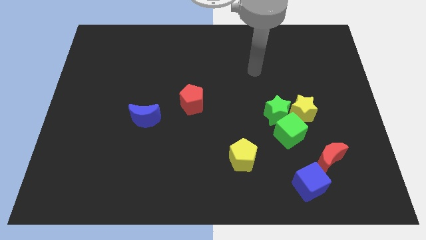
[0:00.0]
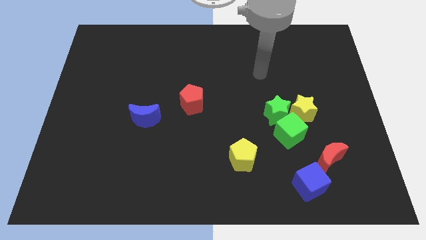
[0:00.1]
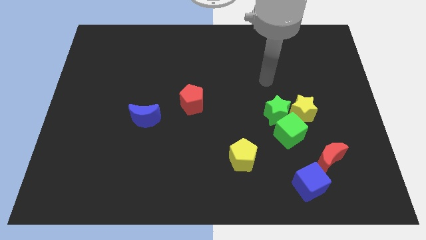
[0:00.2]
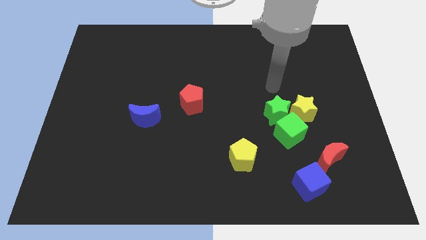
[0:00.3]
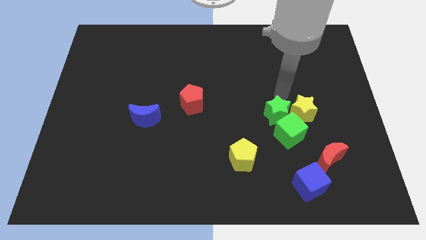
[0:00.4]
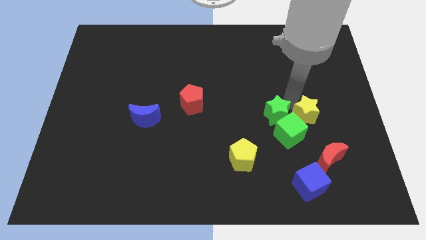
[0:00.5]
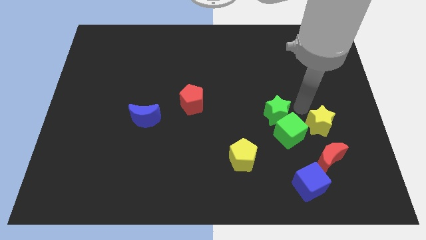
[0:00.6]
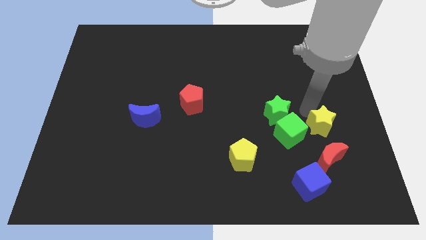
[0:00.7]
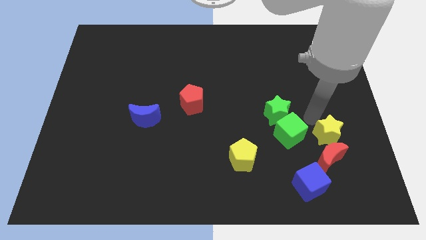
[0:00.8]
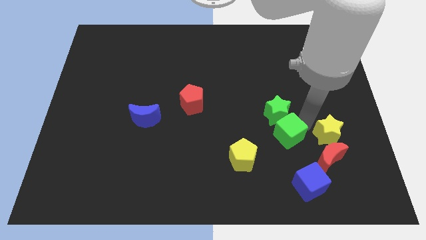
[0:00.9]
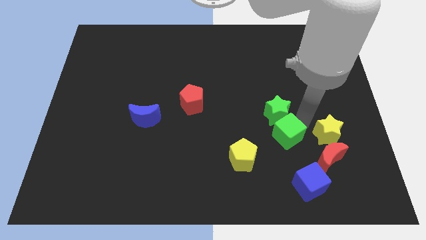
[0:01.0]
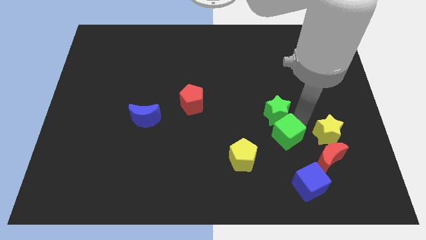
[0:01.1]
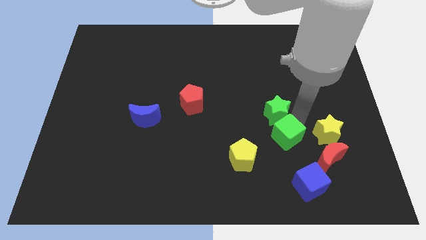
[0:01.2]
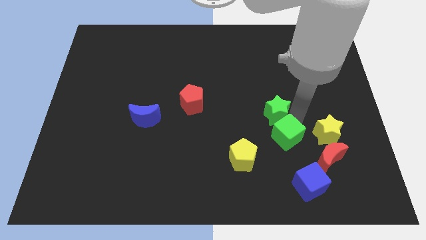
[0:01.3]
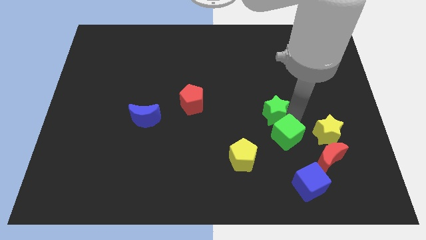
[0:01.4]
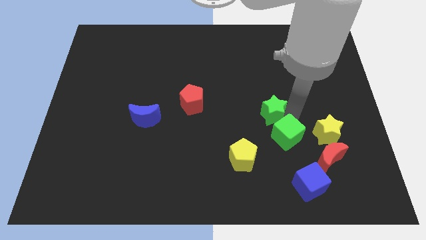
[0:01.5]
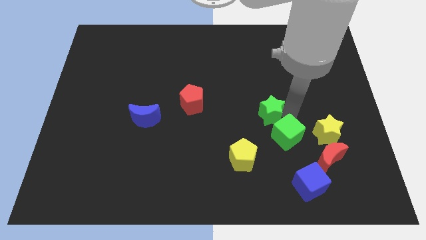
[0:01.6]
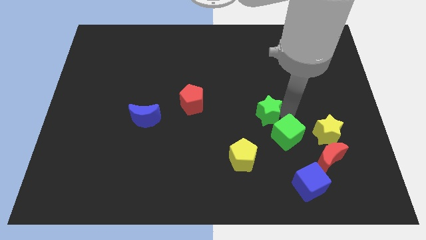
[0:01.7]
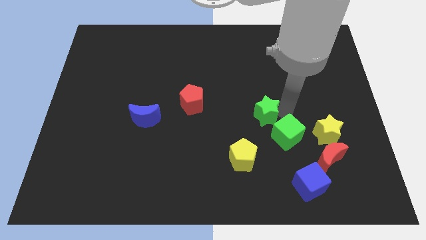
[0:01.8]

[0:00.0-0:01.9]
separate the green star from the green cube and yellow star

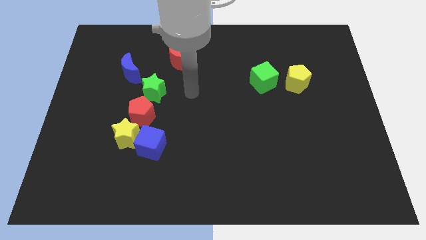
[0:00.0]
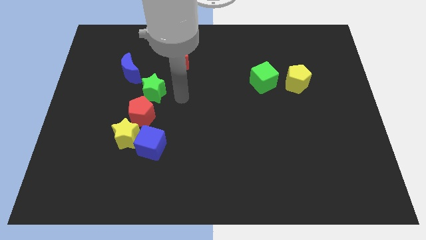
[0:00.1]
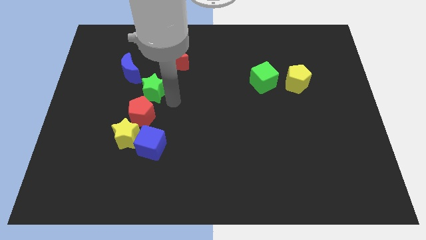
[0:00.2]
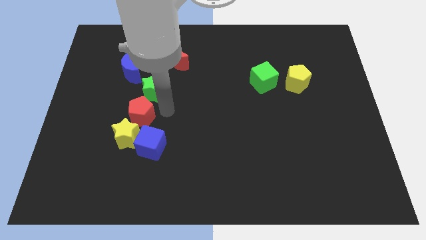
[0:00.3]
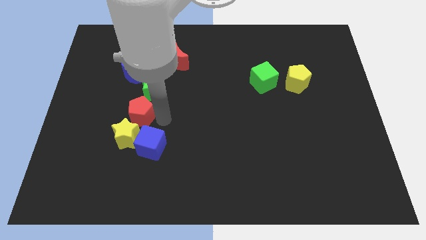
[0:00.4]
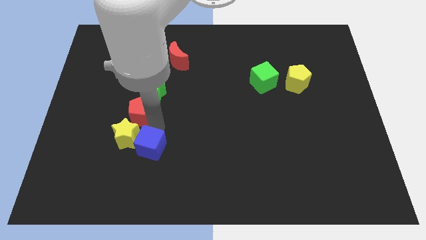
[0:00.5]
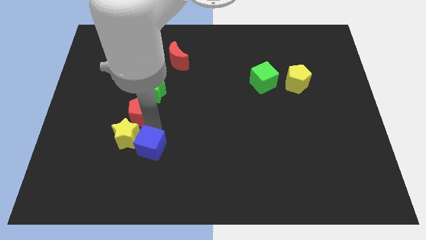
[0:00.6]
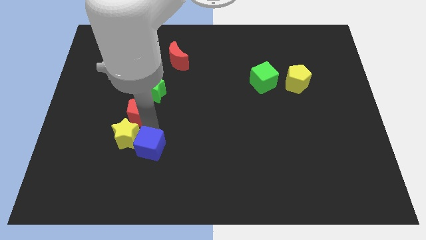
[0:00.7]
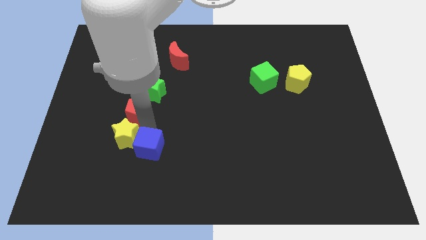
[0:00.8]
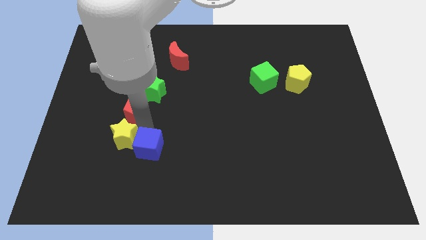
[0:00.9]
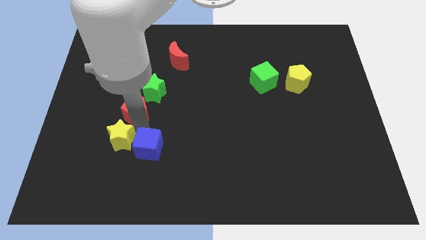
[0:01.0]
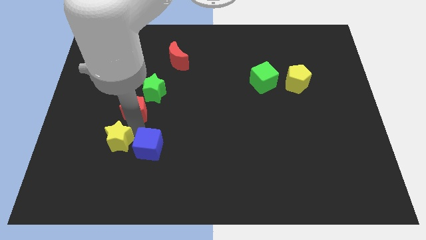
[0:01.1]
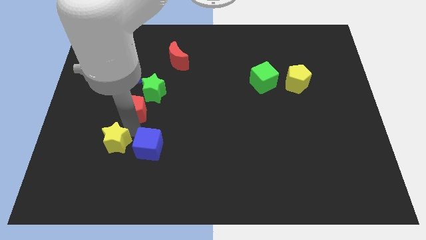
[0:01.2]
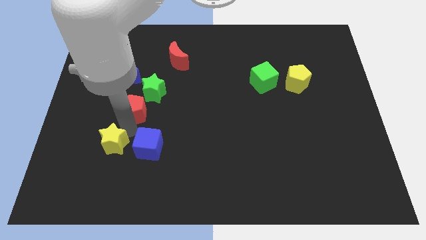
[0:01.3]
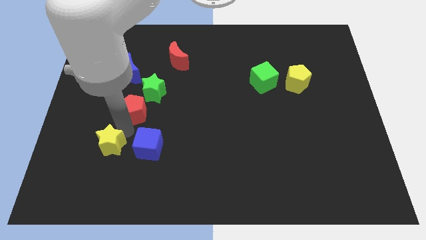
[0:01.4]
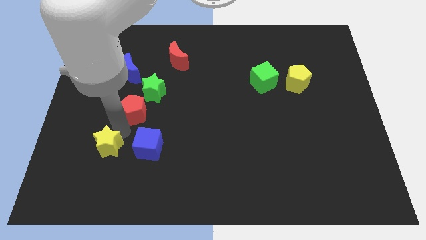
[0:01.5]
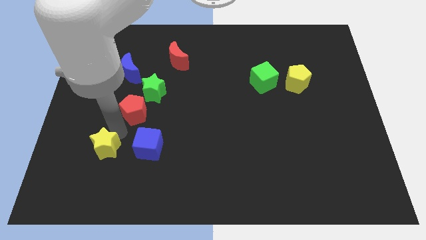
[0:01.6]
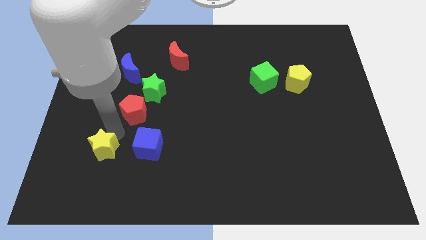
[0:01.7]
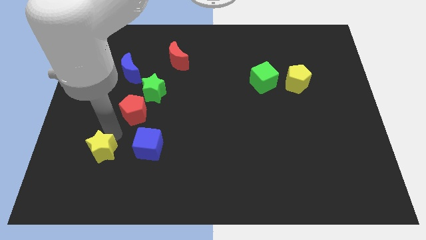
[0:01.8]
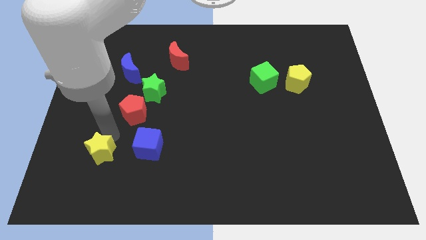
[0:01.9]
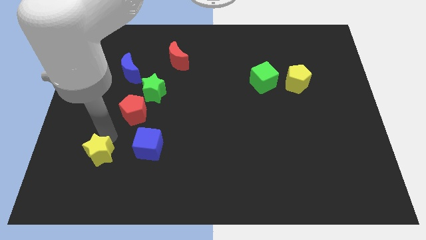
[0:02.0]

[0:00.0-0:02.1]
separate the yellow star from the blue cube and red pentagon

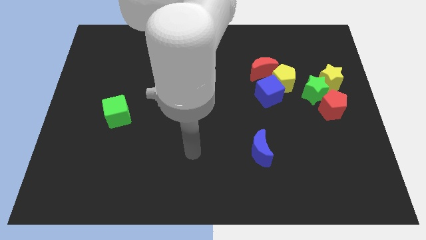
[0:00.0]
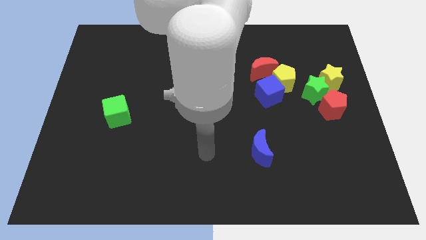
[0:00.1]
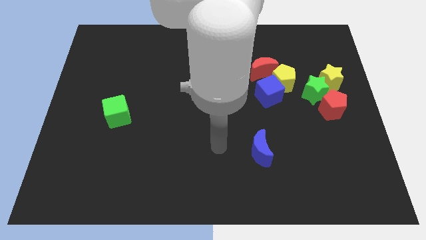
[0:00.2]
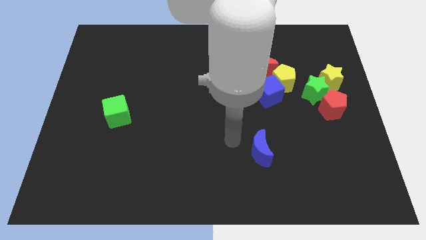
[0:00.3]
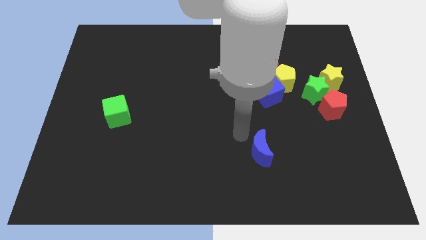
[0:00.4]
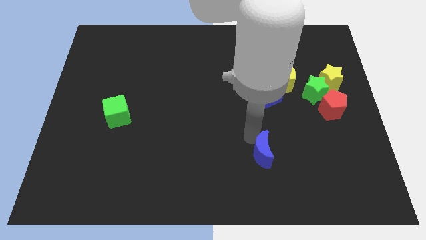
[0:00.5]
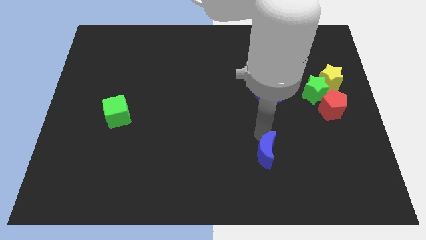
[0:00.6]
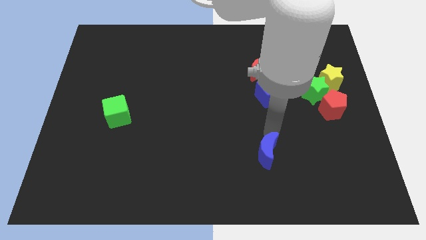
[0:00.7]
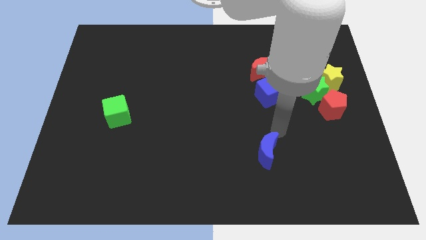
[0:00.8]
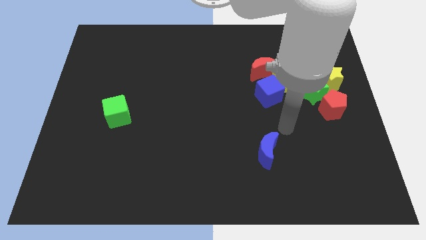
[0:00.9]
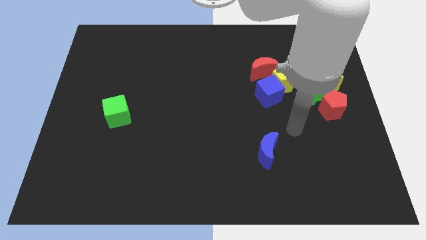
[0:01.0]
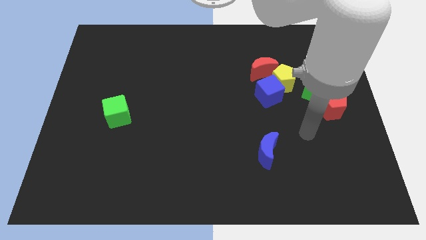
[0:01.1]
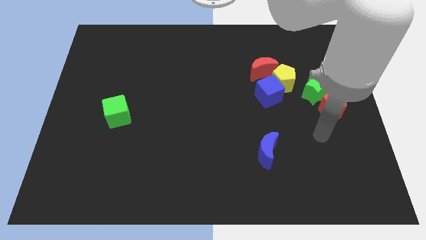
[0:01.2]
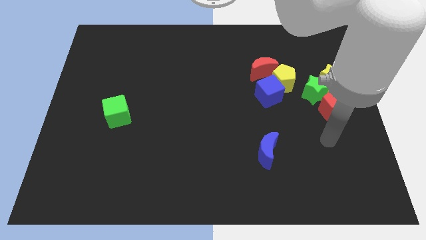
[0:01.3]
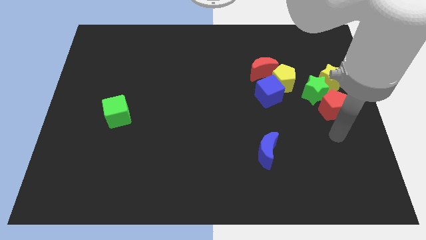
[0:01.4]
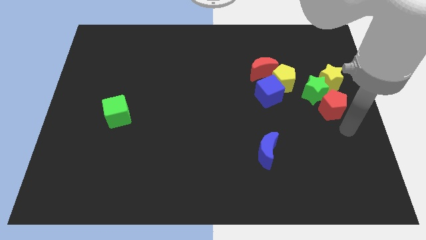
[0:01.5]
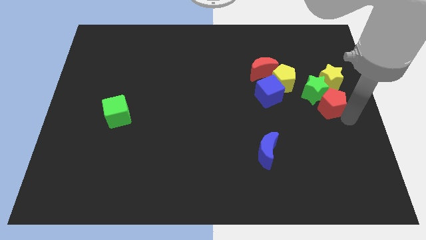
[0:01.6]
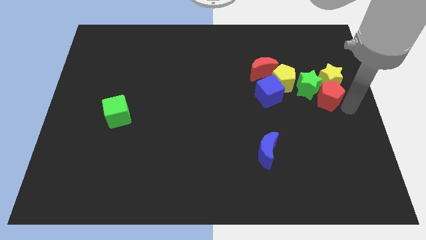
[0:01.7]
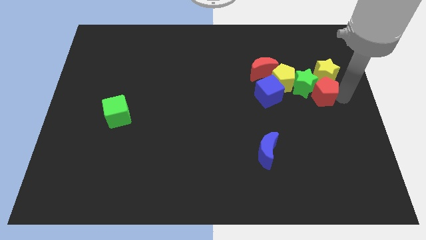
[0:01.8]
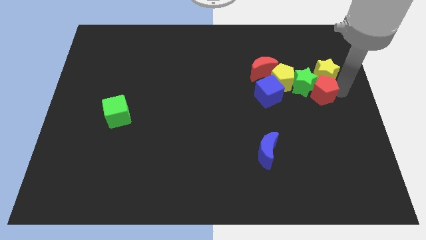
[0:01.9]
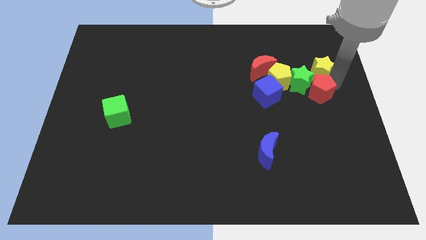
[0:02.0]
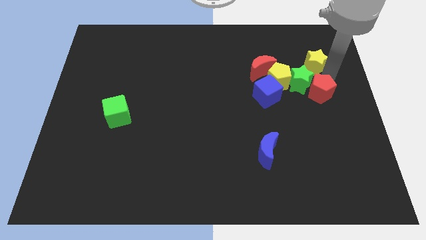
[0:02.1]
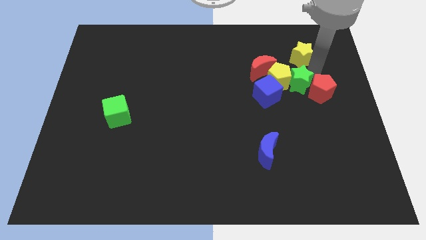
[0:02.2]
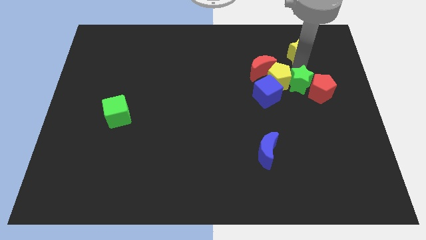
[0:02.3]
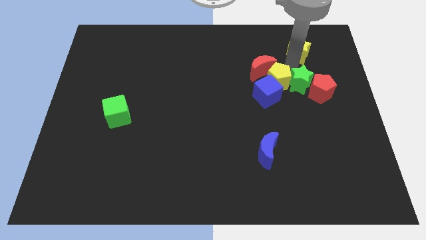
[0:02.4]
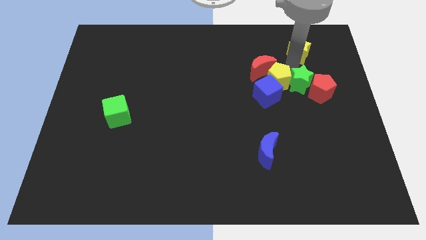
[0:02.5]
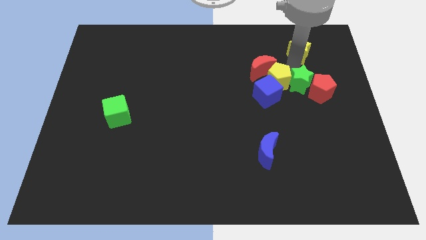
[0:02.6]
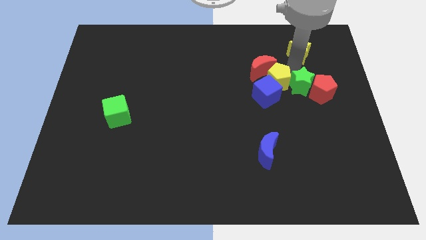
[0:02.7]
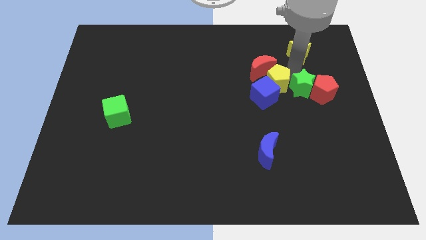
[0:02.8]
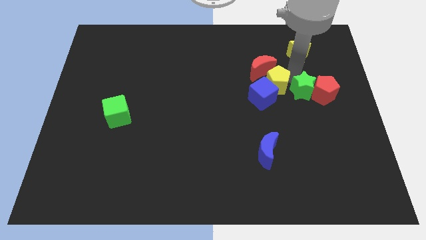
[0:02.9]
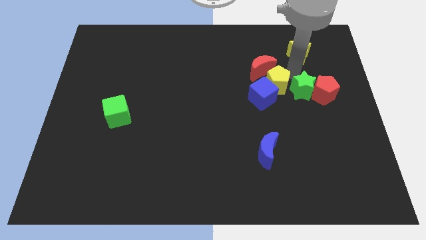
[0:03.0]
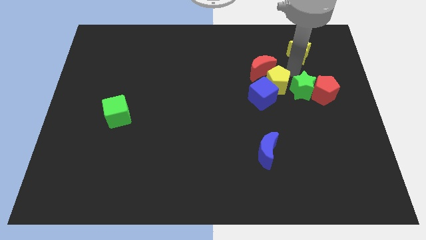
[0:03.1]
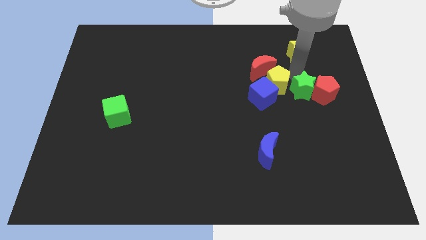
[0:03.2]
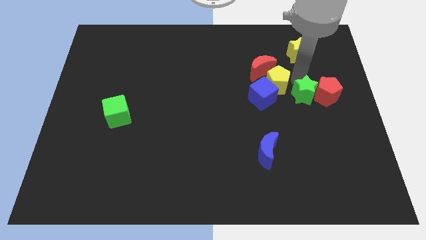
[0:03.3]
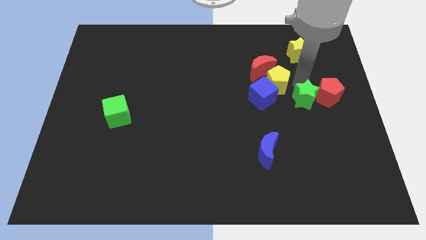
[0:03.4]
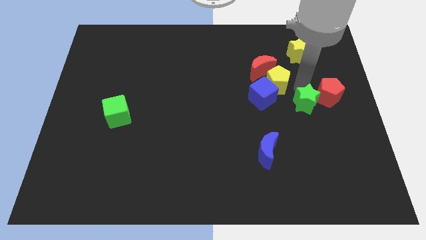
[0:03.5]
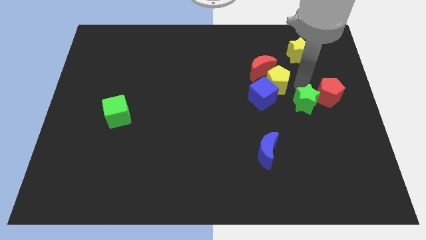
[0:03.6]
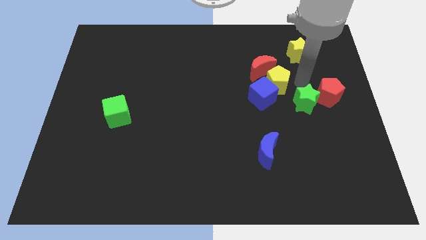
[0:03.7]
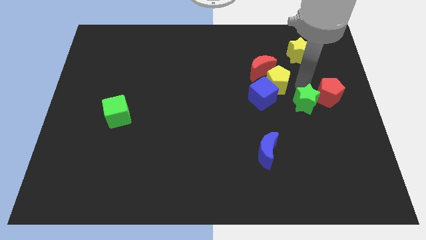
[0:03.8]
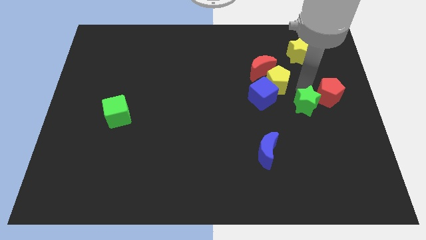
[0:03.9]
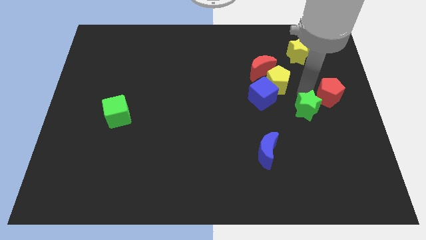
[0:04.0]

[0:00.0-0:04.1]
separate the green star from the red pentagon, yellow star, and yellow pentagon

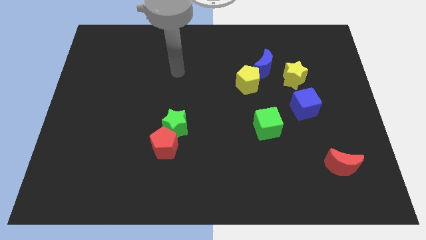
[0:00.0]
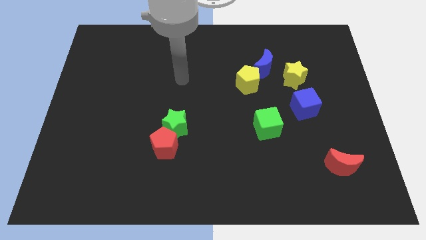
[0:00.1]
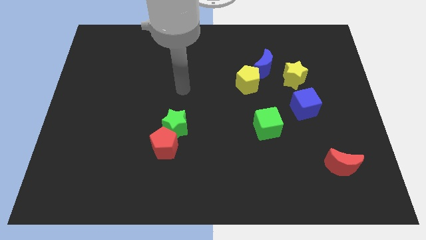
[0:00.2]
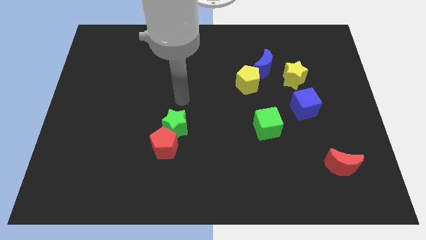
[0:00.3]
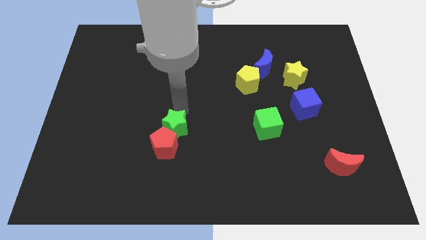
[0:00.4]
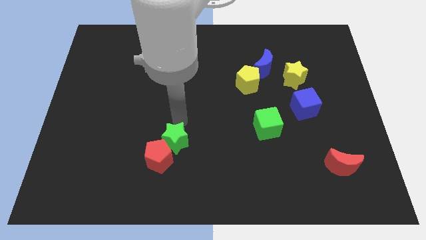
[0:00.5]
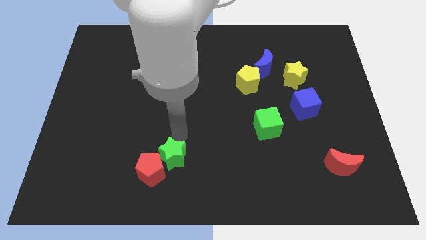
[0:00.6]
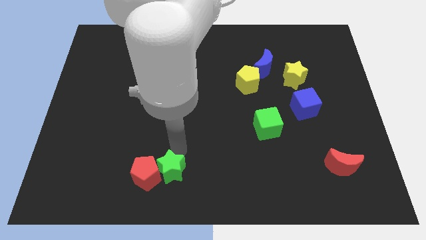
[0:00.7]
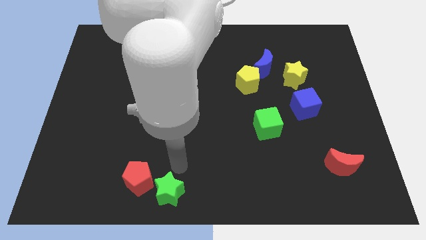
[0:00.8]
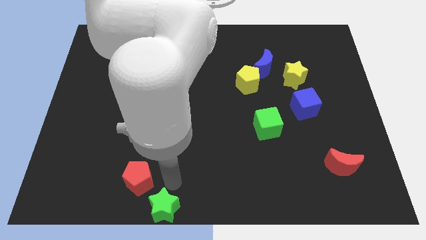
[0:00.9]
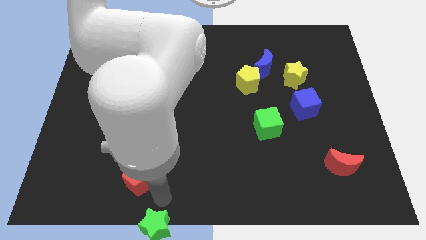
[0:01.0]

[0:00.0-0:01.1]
separate the red pentagon from the green star
